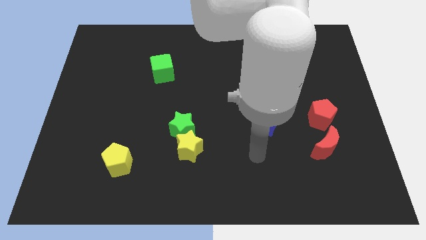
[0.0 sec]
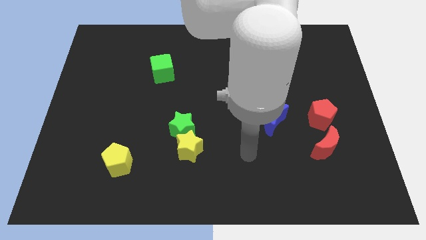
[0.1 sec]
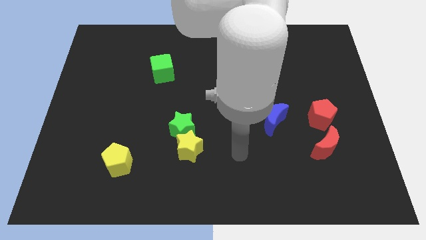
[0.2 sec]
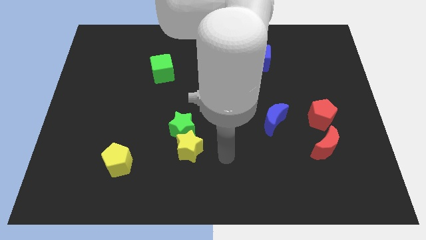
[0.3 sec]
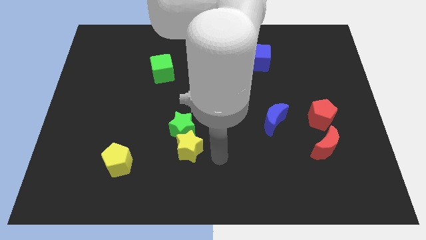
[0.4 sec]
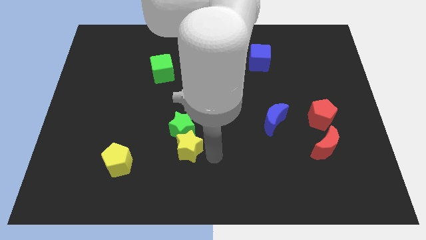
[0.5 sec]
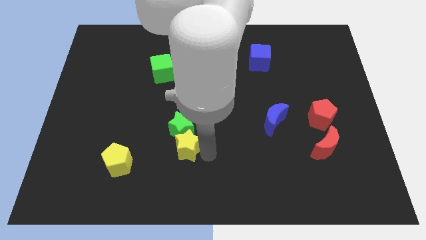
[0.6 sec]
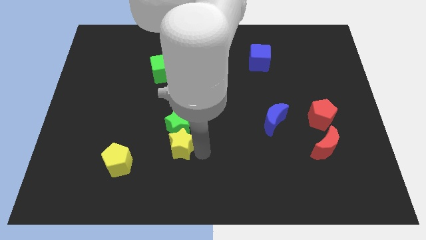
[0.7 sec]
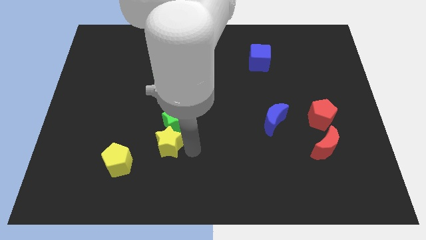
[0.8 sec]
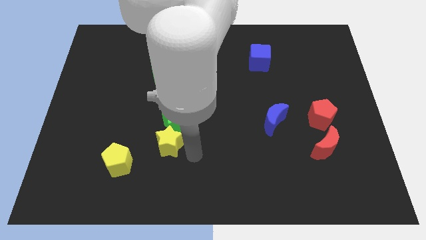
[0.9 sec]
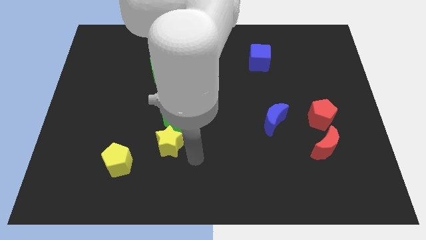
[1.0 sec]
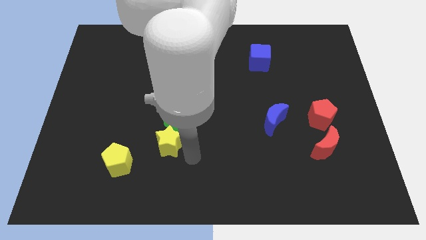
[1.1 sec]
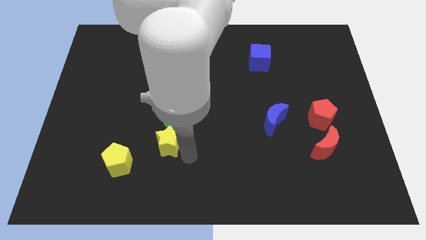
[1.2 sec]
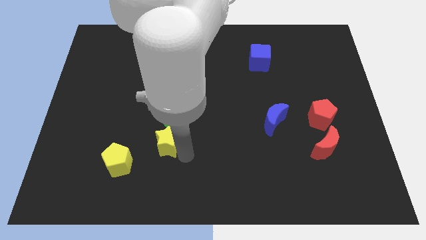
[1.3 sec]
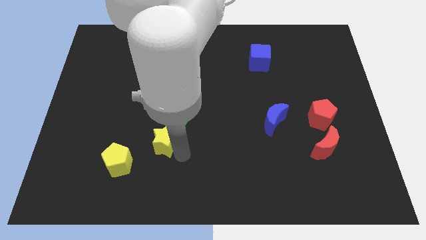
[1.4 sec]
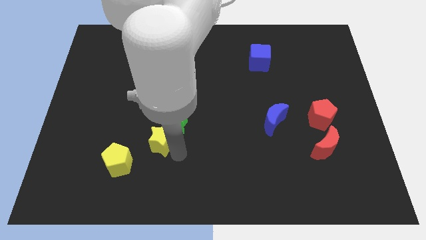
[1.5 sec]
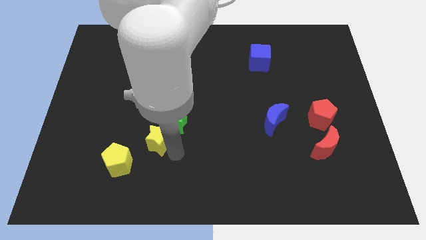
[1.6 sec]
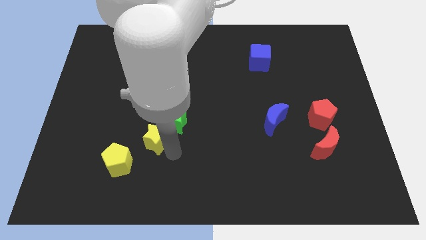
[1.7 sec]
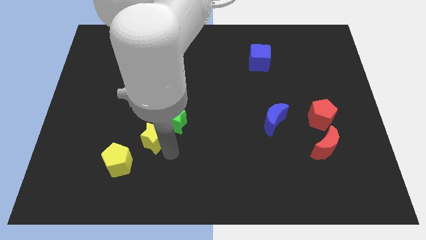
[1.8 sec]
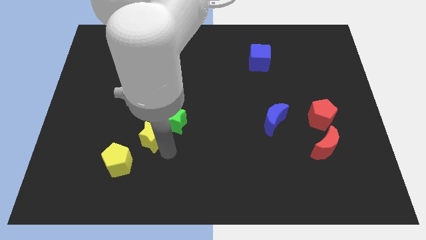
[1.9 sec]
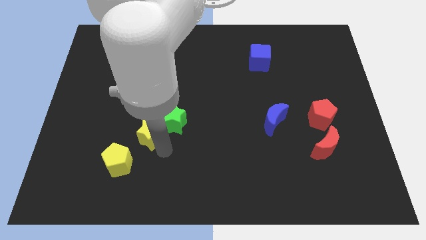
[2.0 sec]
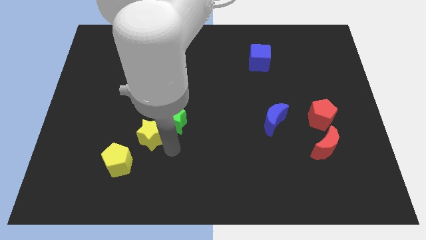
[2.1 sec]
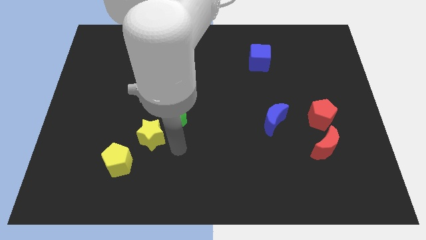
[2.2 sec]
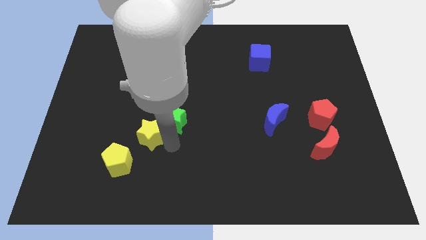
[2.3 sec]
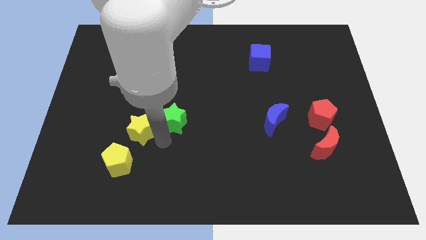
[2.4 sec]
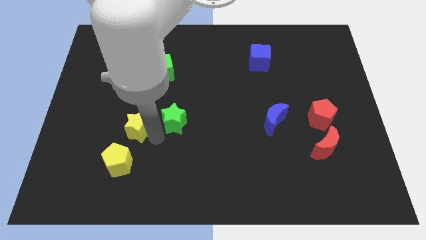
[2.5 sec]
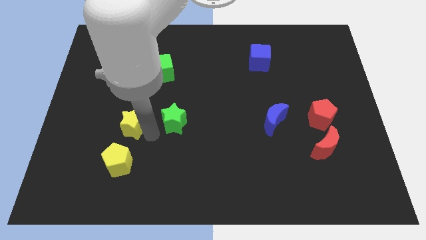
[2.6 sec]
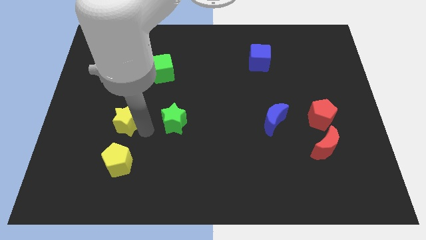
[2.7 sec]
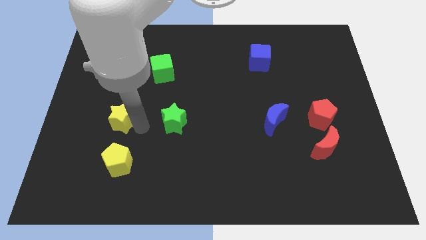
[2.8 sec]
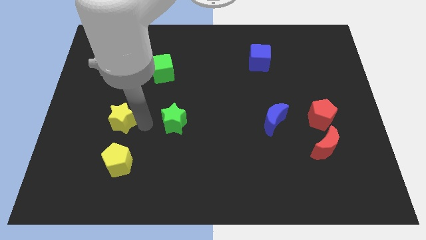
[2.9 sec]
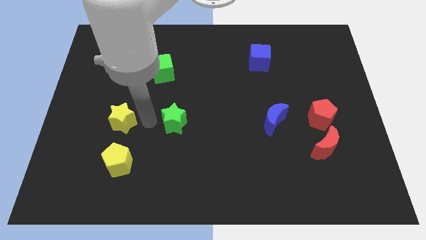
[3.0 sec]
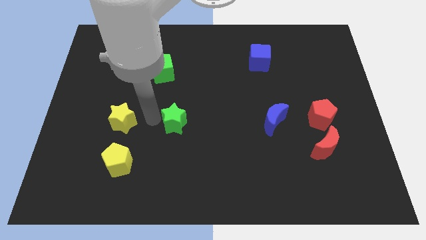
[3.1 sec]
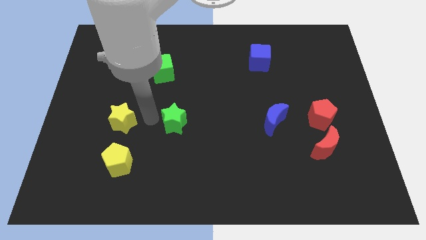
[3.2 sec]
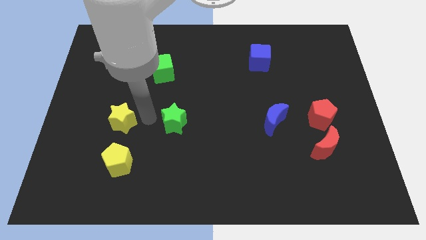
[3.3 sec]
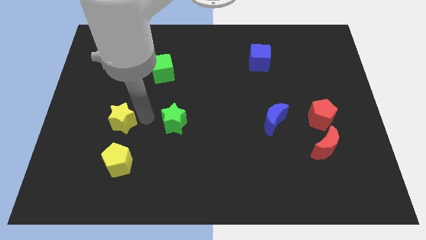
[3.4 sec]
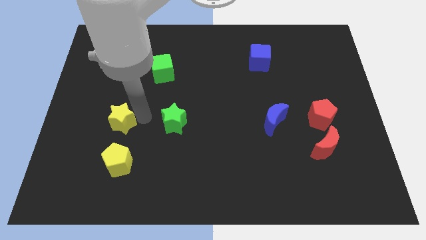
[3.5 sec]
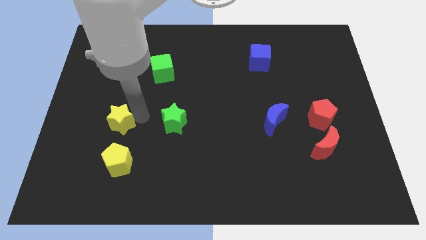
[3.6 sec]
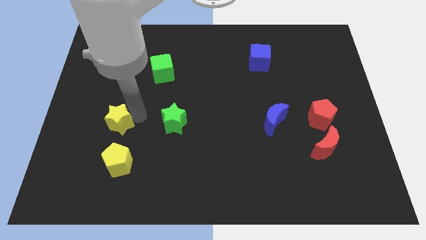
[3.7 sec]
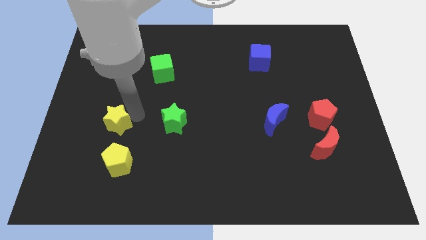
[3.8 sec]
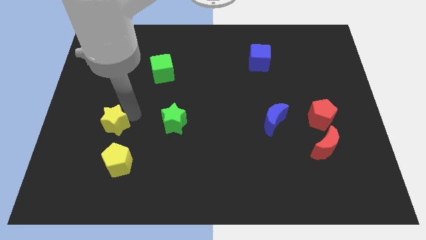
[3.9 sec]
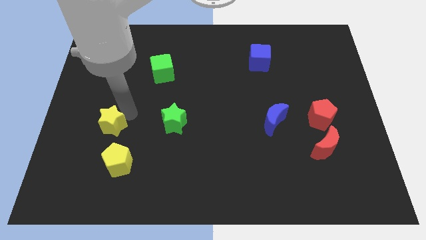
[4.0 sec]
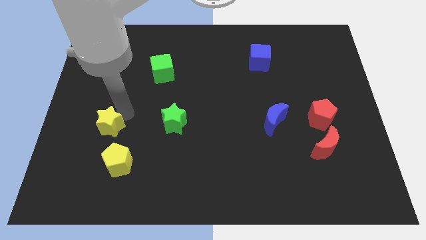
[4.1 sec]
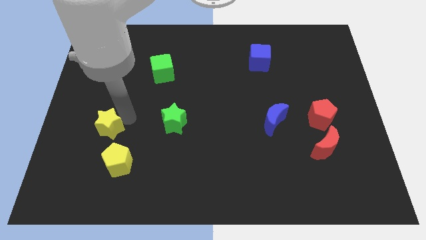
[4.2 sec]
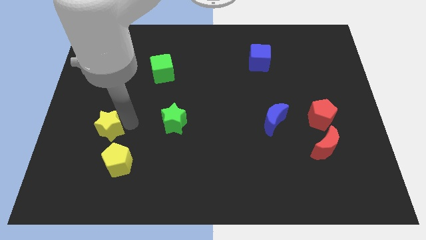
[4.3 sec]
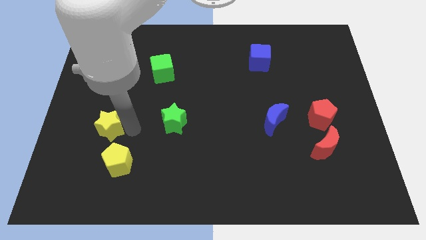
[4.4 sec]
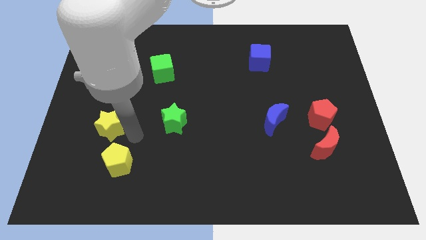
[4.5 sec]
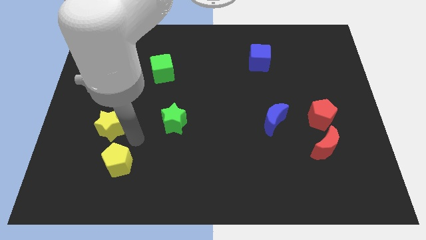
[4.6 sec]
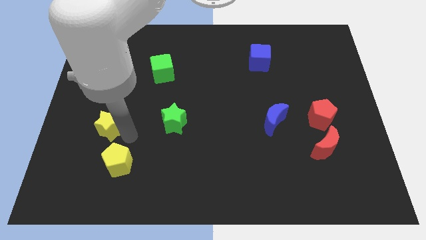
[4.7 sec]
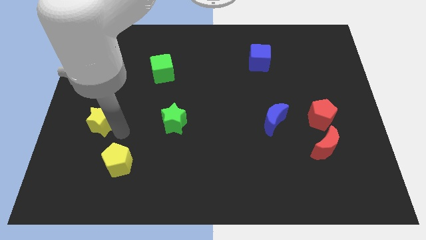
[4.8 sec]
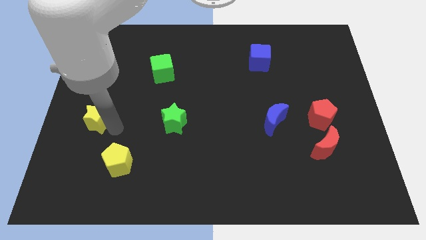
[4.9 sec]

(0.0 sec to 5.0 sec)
put the yellow star to the center left
